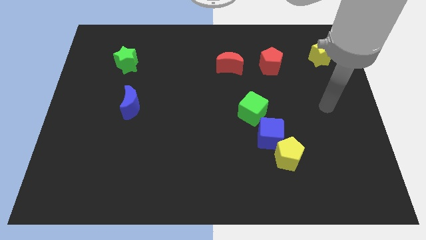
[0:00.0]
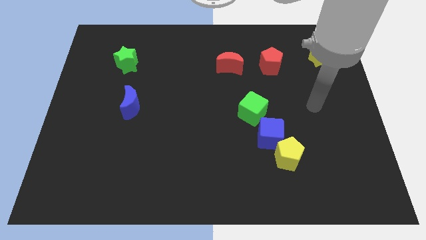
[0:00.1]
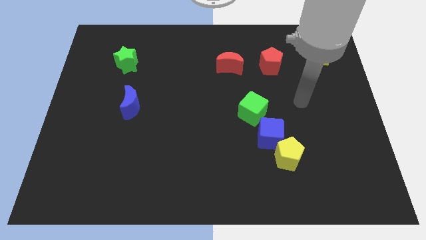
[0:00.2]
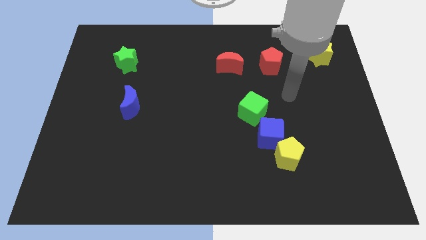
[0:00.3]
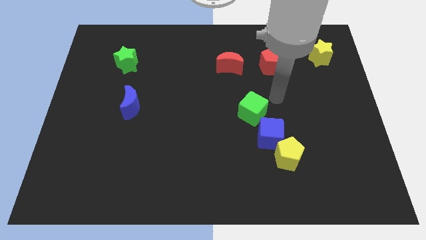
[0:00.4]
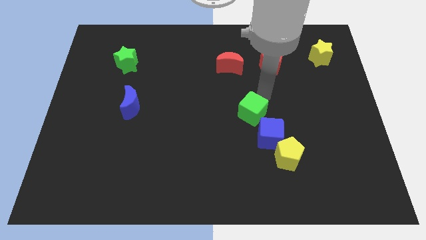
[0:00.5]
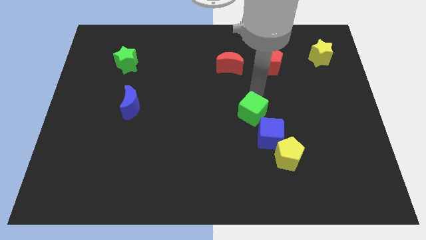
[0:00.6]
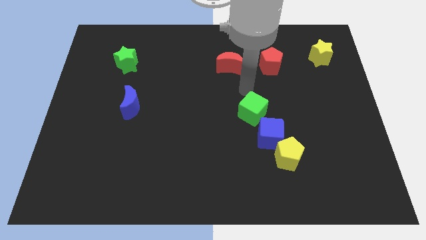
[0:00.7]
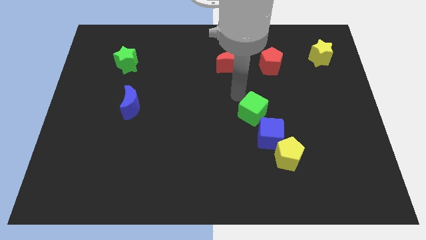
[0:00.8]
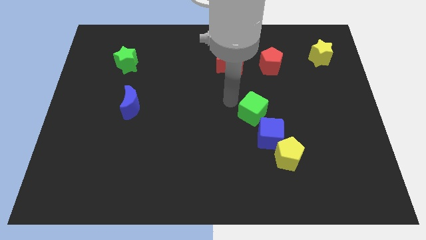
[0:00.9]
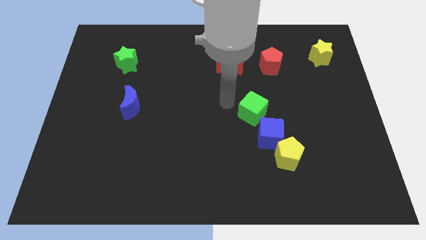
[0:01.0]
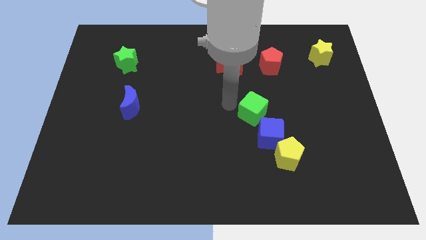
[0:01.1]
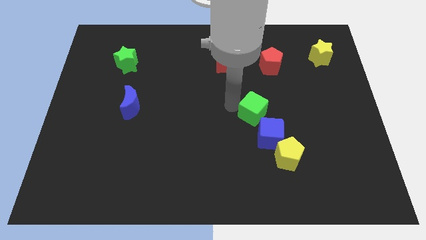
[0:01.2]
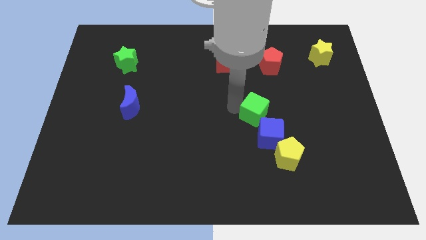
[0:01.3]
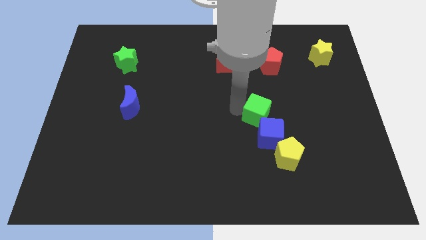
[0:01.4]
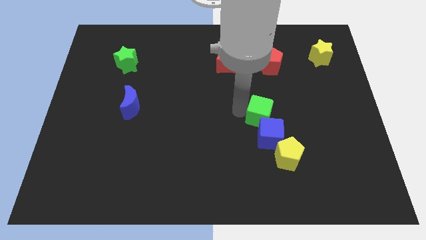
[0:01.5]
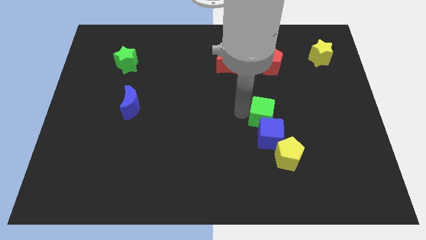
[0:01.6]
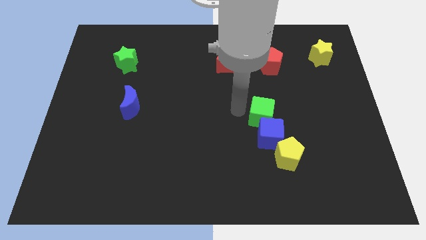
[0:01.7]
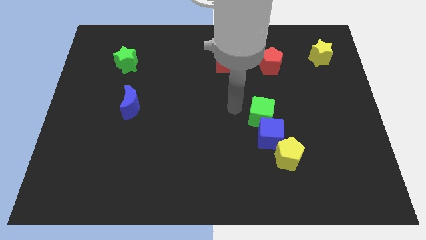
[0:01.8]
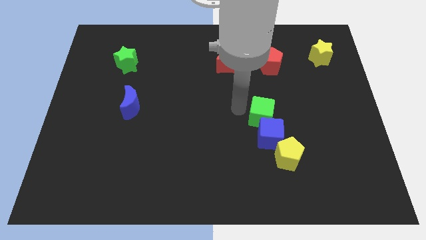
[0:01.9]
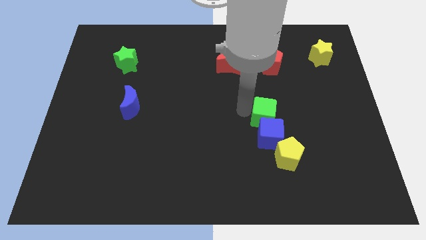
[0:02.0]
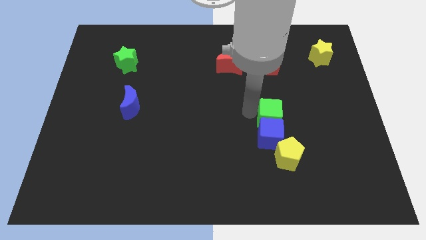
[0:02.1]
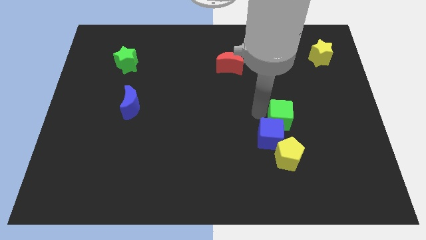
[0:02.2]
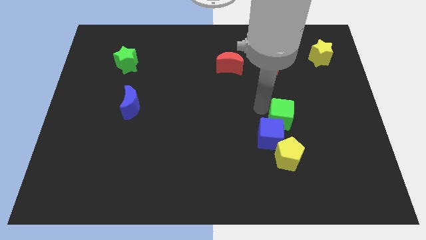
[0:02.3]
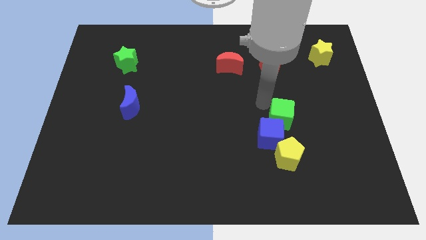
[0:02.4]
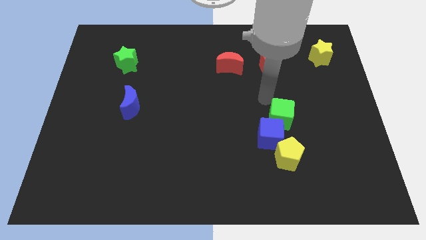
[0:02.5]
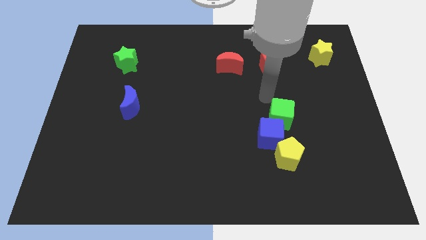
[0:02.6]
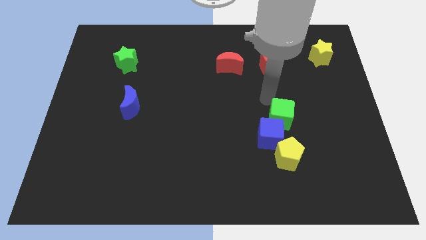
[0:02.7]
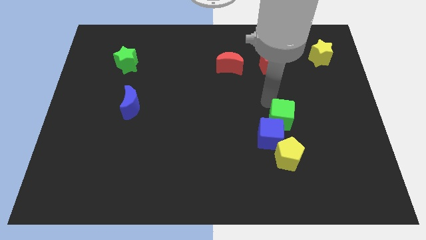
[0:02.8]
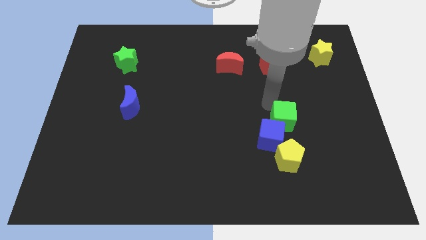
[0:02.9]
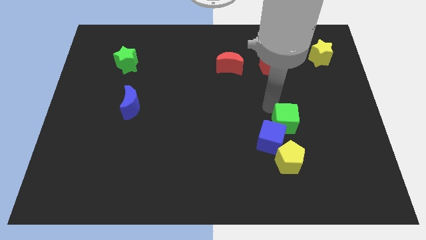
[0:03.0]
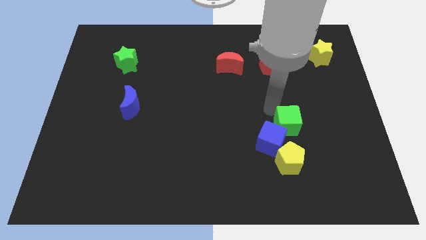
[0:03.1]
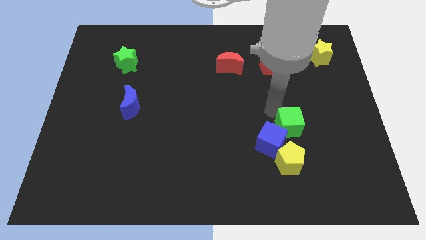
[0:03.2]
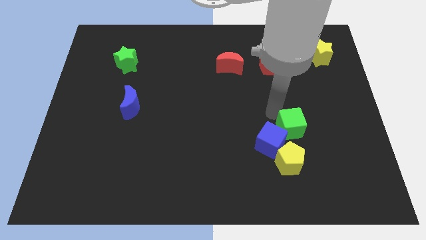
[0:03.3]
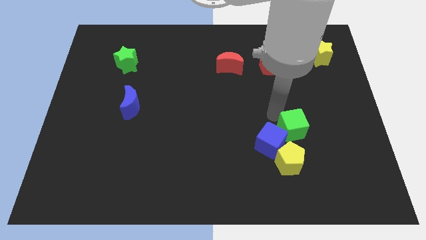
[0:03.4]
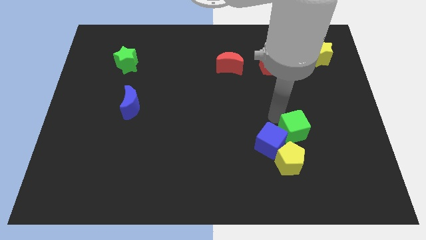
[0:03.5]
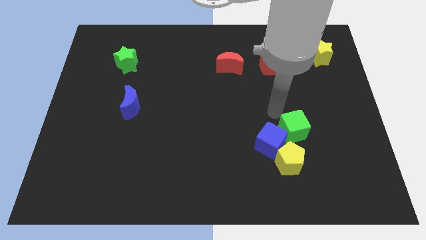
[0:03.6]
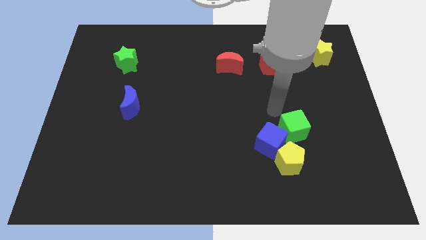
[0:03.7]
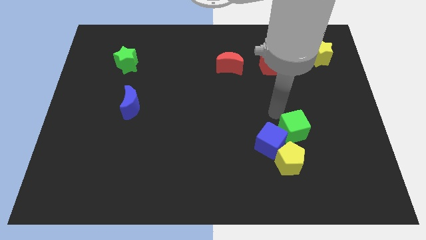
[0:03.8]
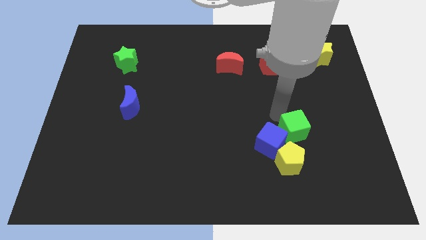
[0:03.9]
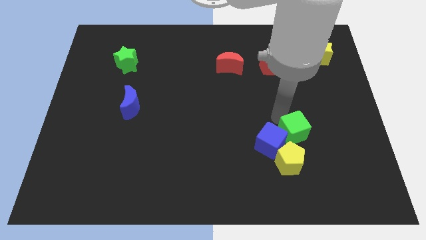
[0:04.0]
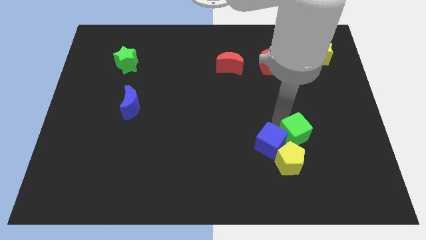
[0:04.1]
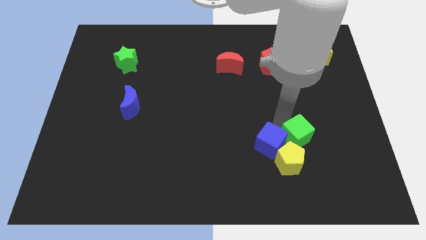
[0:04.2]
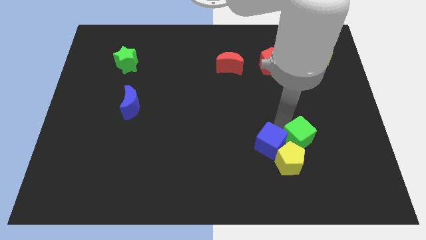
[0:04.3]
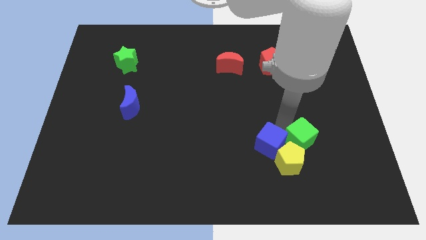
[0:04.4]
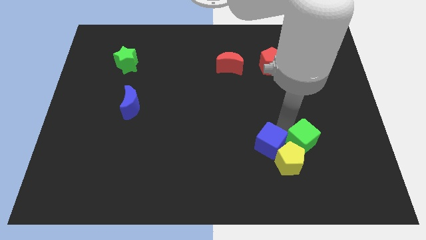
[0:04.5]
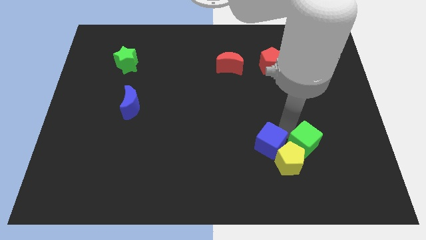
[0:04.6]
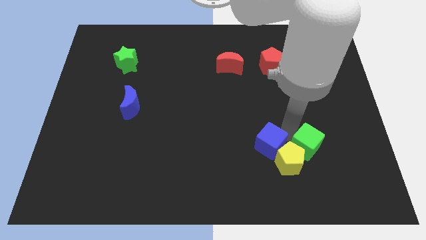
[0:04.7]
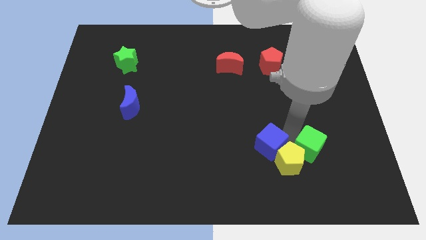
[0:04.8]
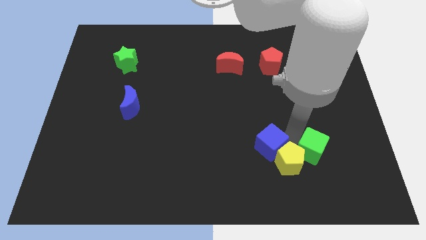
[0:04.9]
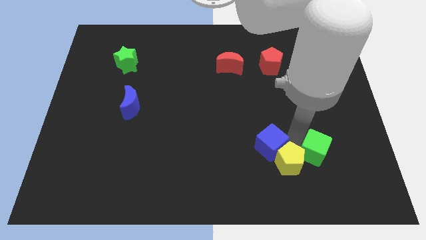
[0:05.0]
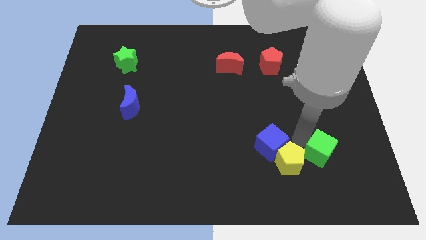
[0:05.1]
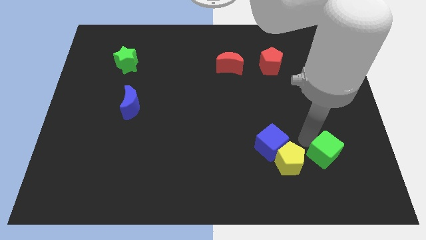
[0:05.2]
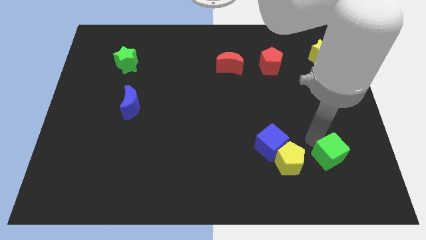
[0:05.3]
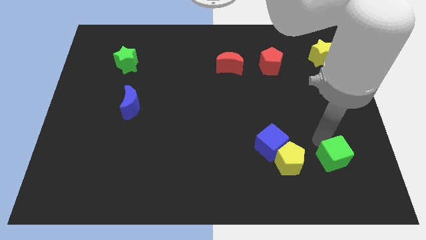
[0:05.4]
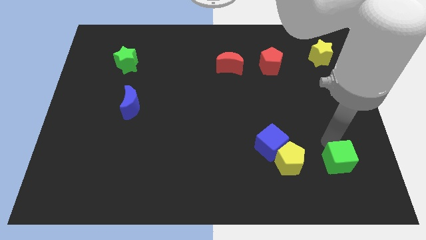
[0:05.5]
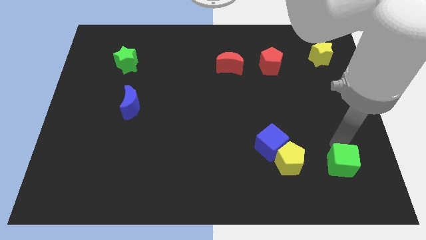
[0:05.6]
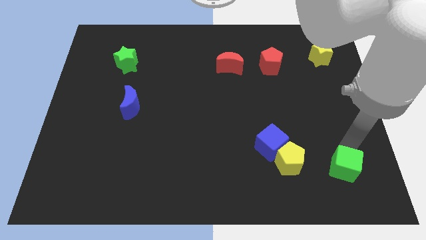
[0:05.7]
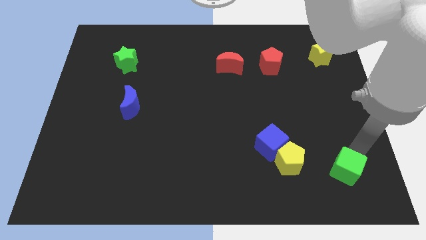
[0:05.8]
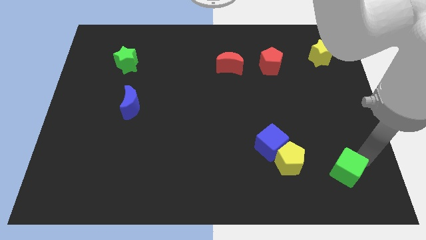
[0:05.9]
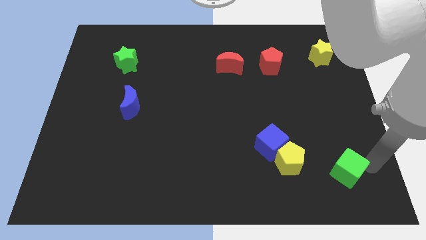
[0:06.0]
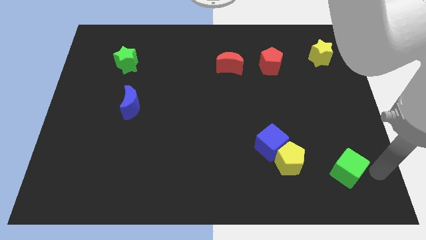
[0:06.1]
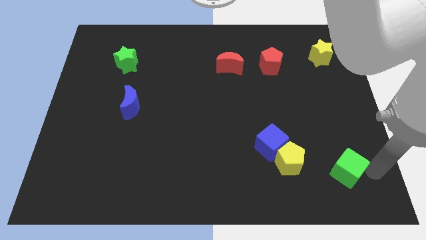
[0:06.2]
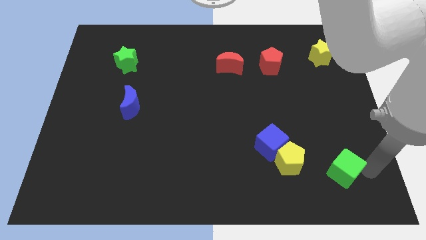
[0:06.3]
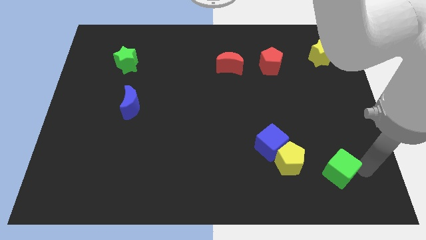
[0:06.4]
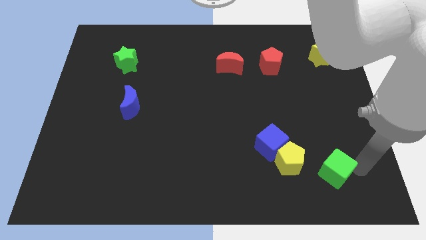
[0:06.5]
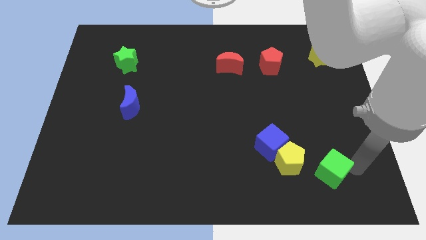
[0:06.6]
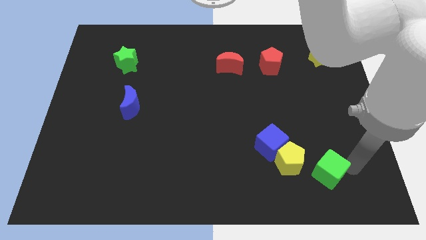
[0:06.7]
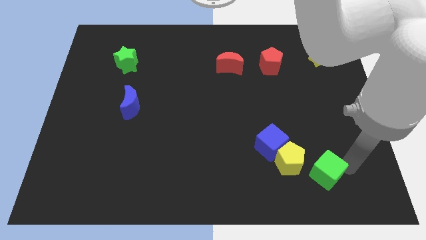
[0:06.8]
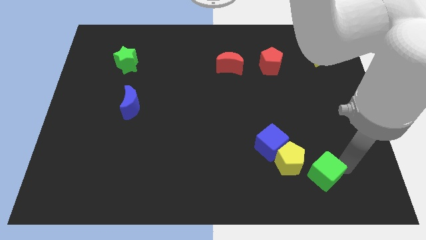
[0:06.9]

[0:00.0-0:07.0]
move the green cube to the bottom right of the blue cube

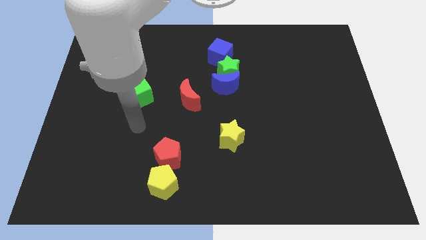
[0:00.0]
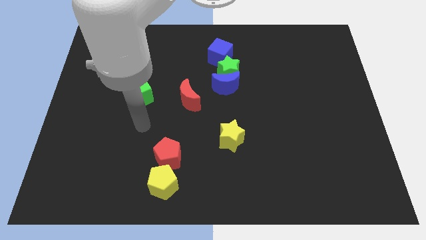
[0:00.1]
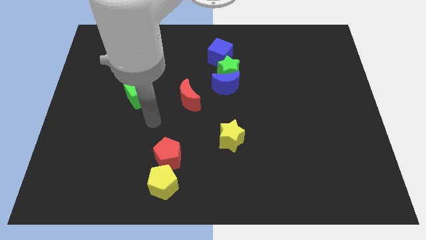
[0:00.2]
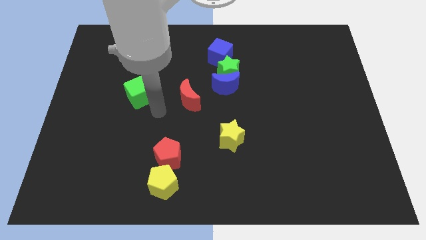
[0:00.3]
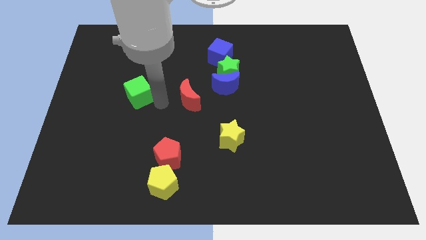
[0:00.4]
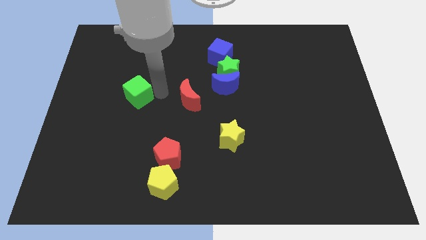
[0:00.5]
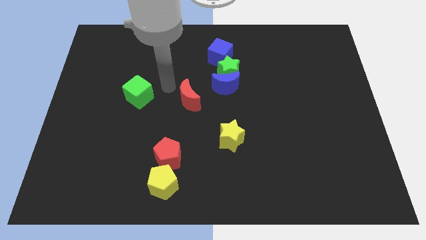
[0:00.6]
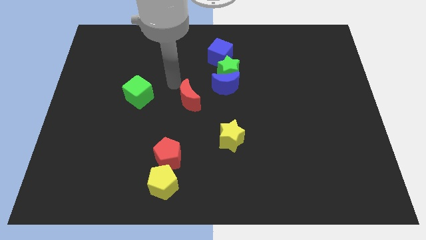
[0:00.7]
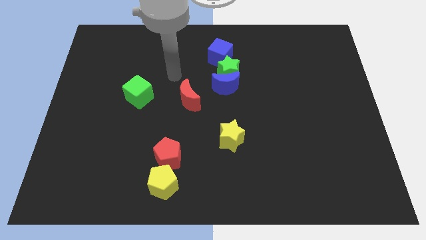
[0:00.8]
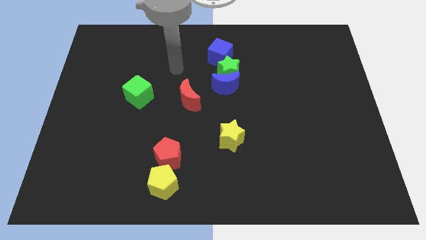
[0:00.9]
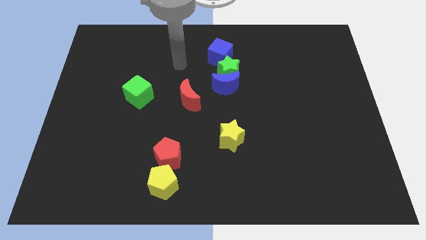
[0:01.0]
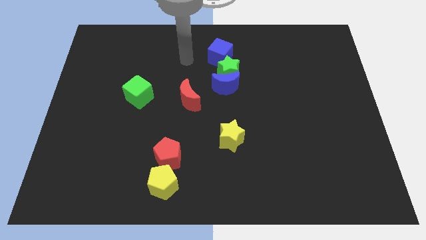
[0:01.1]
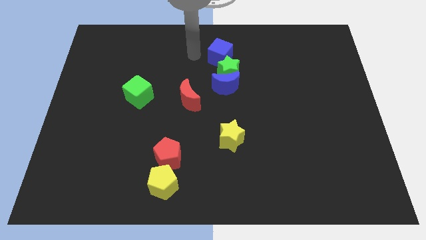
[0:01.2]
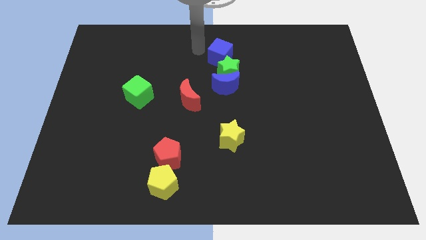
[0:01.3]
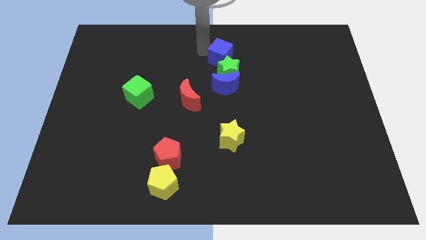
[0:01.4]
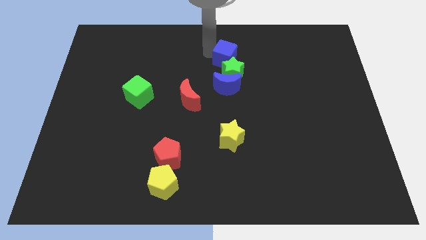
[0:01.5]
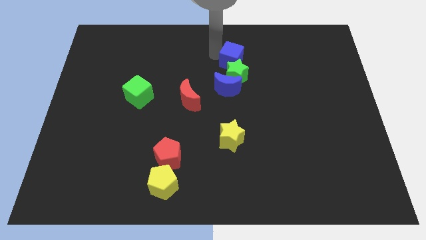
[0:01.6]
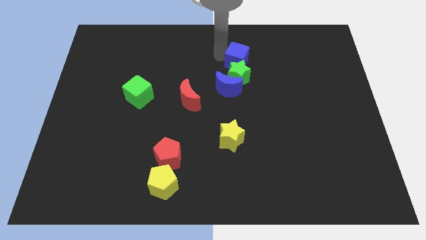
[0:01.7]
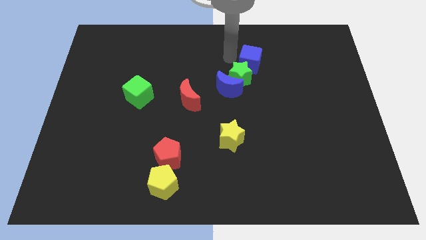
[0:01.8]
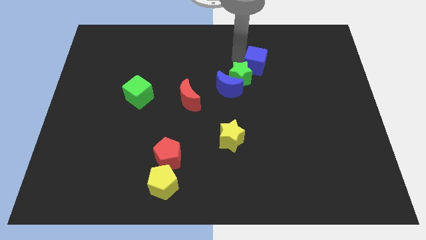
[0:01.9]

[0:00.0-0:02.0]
push the blue cube to the right of the green star
